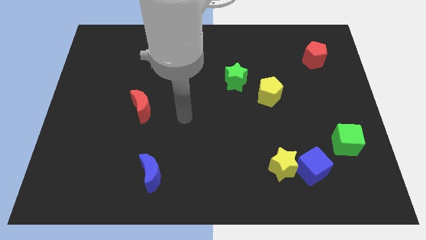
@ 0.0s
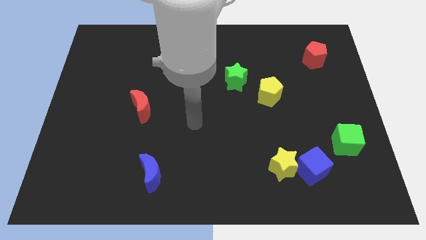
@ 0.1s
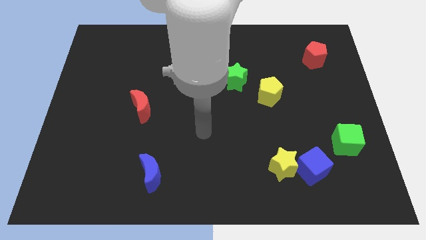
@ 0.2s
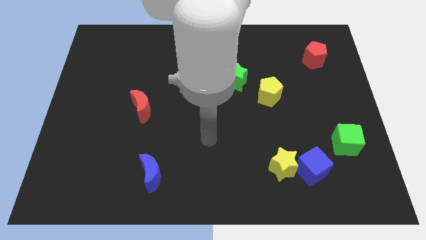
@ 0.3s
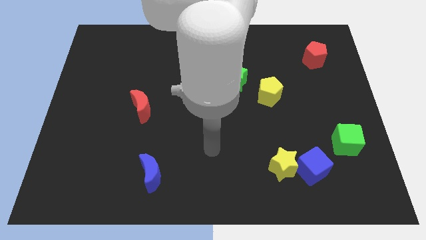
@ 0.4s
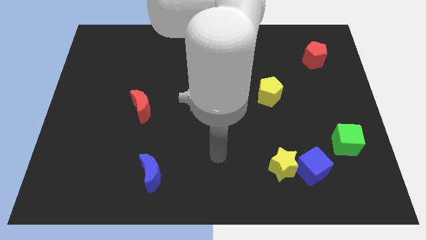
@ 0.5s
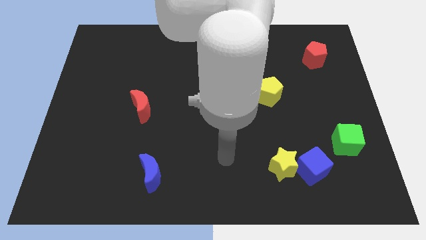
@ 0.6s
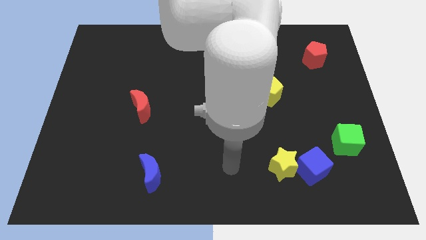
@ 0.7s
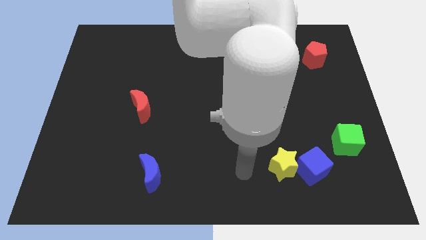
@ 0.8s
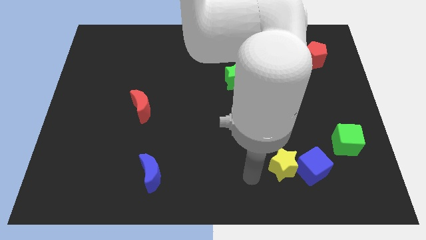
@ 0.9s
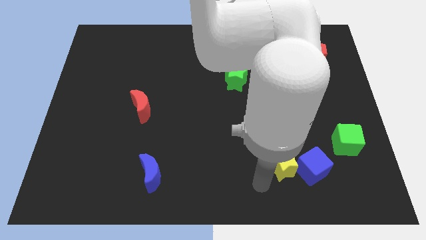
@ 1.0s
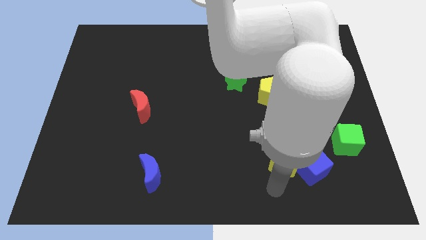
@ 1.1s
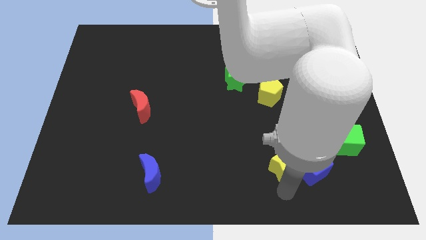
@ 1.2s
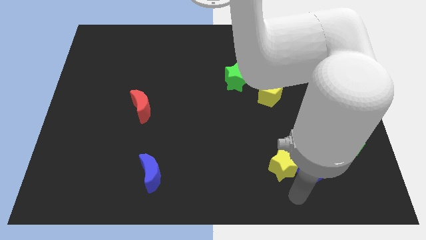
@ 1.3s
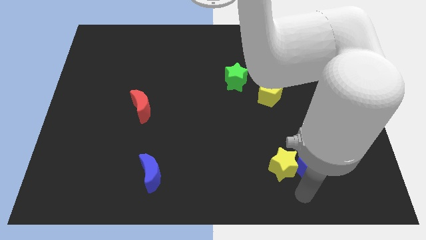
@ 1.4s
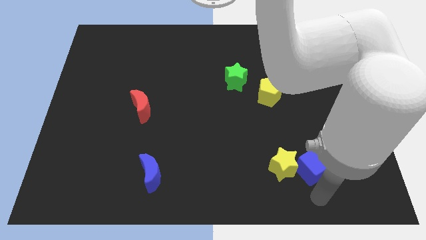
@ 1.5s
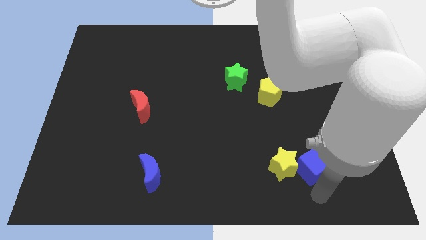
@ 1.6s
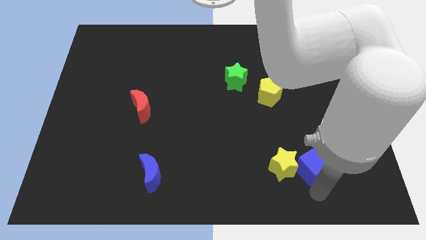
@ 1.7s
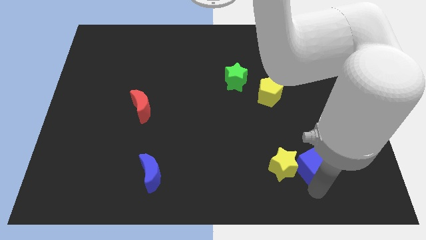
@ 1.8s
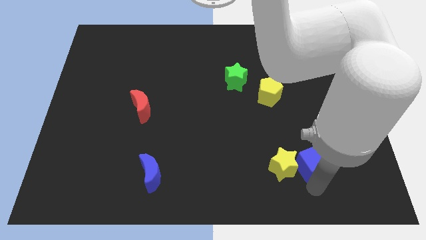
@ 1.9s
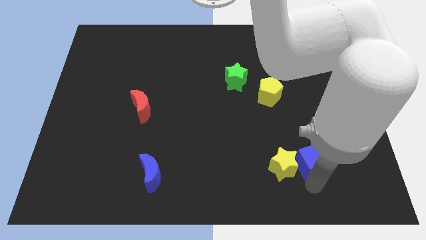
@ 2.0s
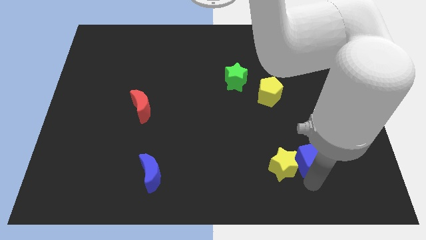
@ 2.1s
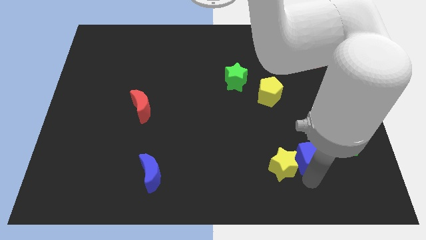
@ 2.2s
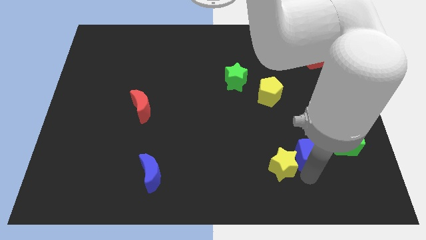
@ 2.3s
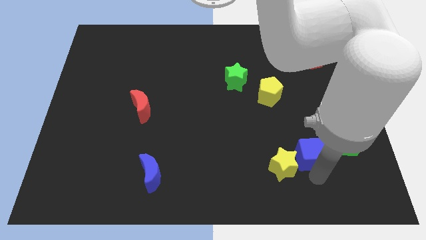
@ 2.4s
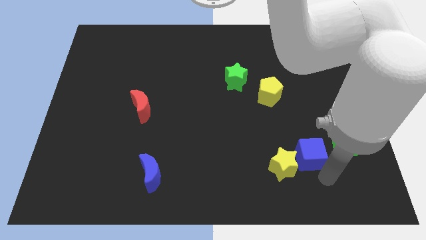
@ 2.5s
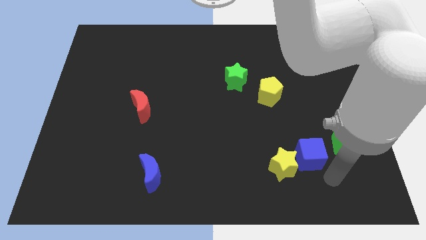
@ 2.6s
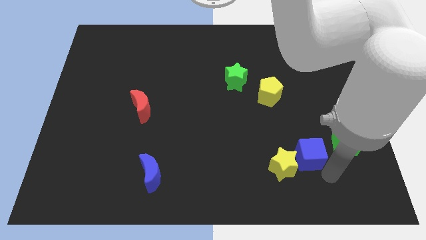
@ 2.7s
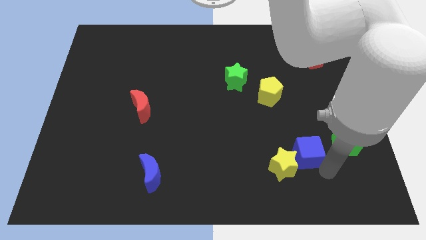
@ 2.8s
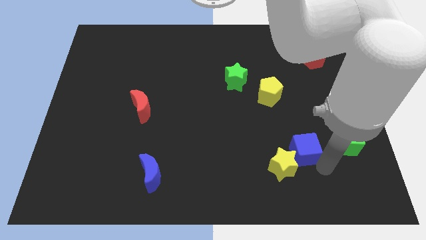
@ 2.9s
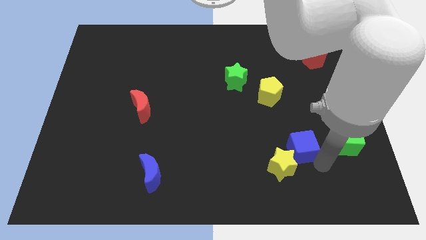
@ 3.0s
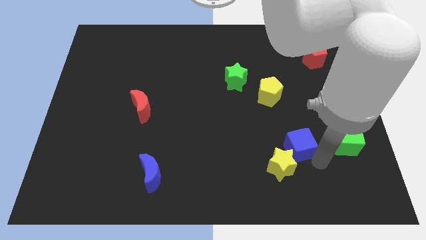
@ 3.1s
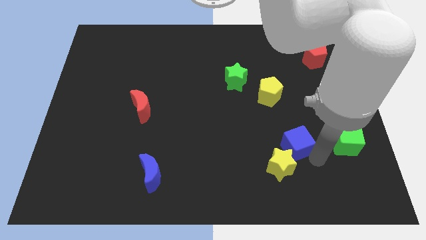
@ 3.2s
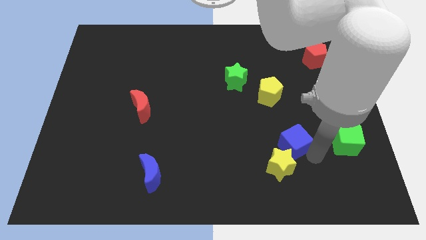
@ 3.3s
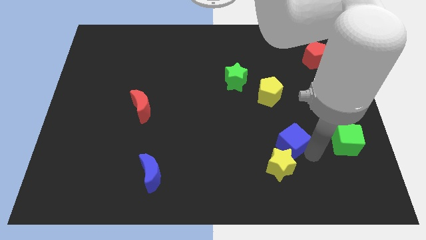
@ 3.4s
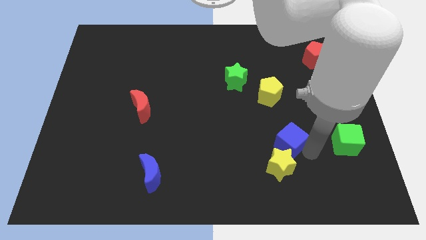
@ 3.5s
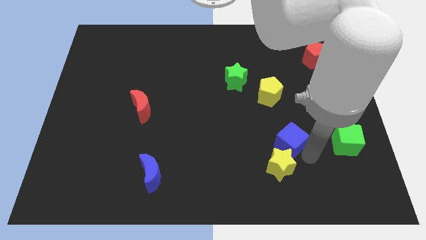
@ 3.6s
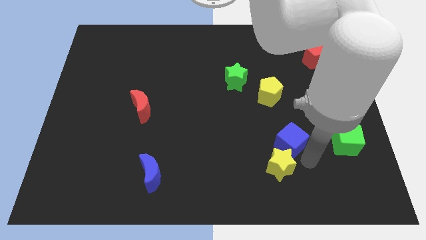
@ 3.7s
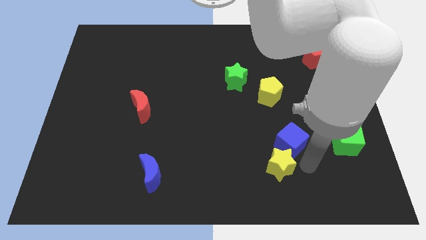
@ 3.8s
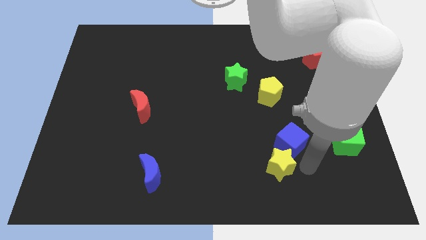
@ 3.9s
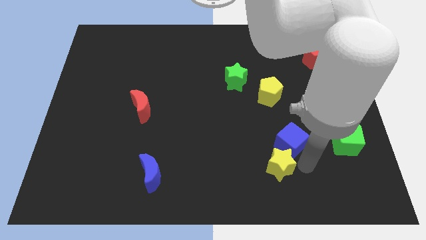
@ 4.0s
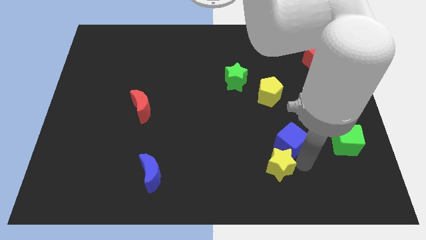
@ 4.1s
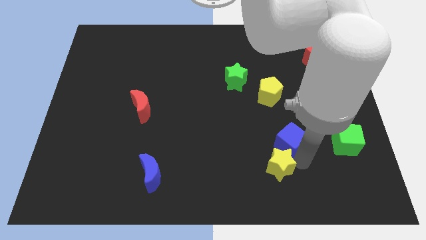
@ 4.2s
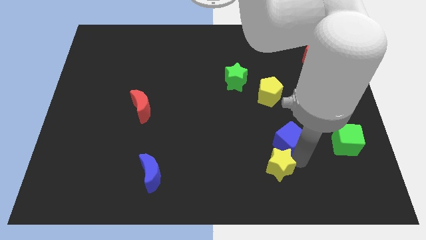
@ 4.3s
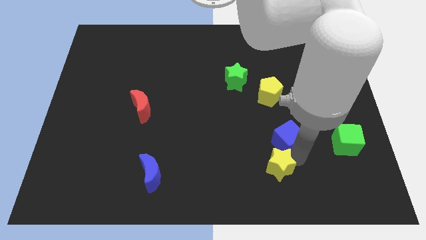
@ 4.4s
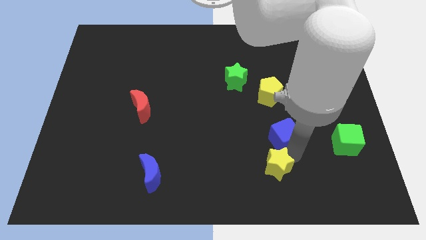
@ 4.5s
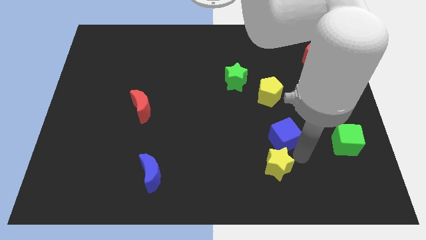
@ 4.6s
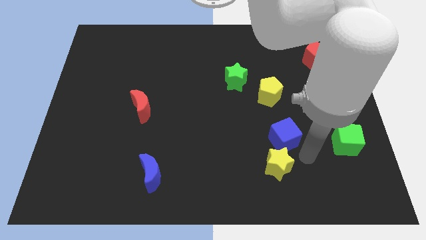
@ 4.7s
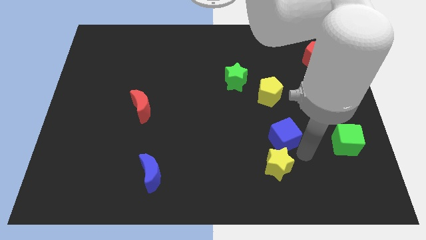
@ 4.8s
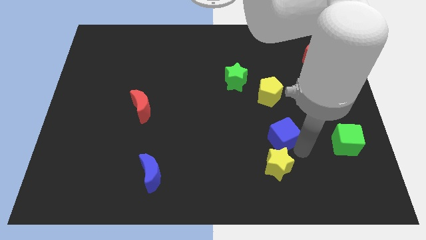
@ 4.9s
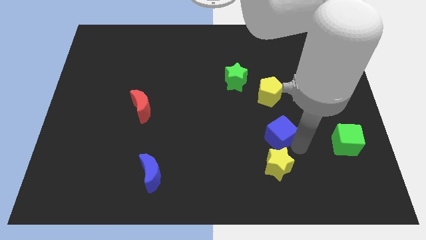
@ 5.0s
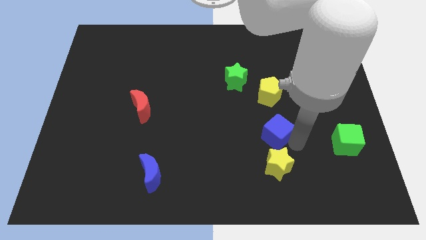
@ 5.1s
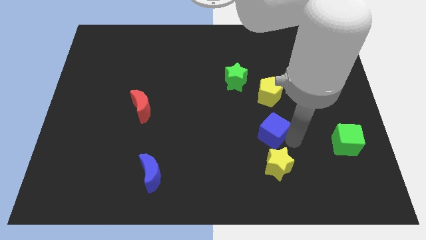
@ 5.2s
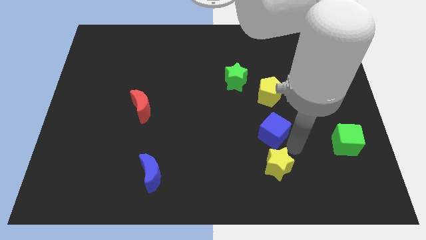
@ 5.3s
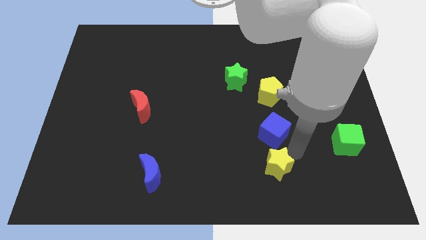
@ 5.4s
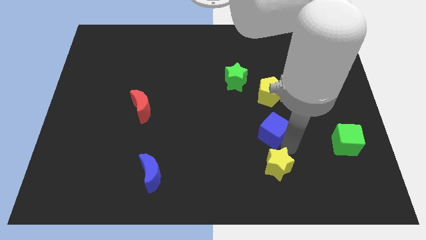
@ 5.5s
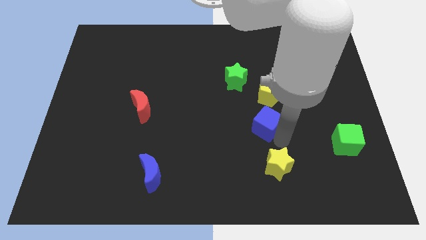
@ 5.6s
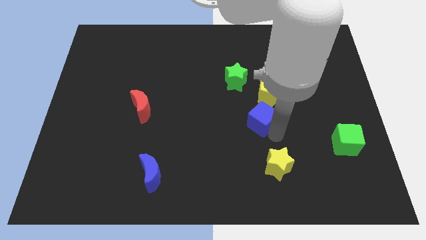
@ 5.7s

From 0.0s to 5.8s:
push the blue cube to the bottom left of the yellow pentagon

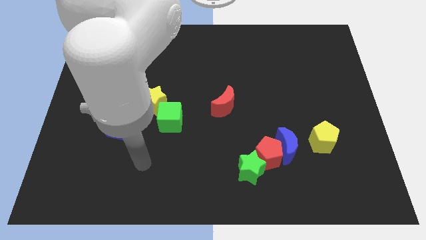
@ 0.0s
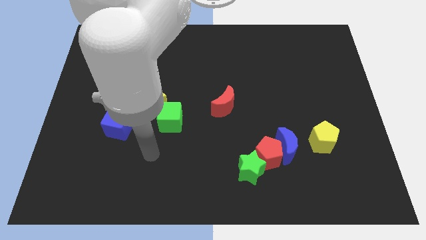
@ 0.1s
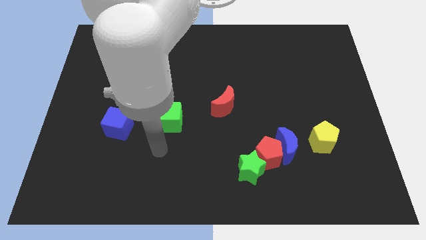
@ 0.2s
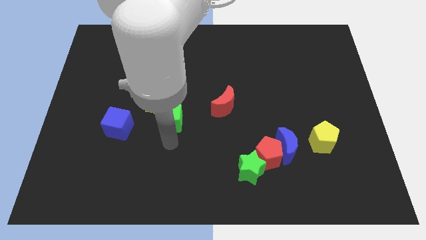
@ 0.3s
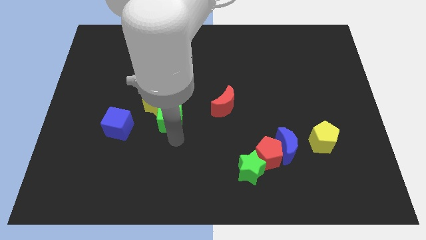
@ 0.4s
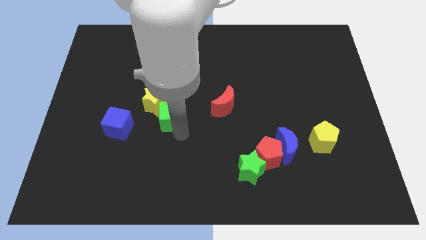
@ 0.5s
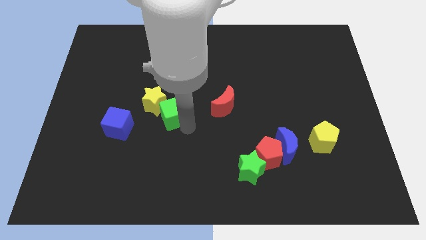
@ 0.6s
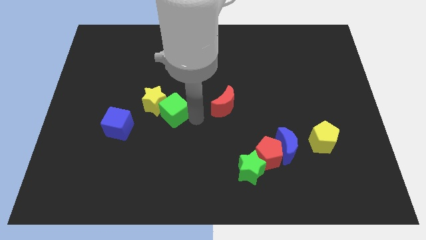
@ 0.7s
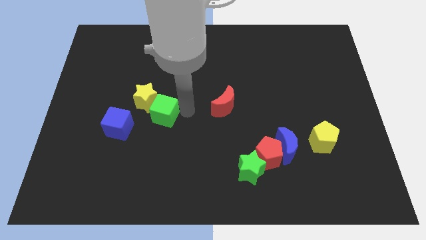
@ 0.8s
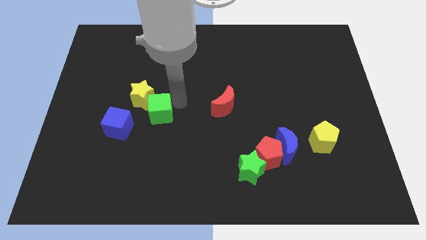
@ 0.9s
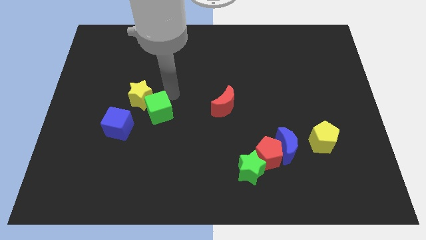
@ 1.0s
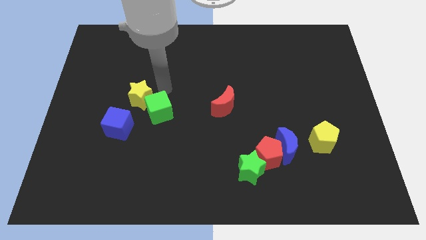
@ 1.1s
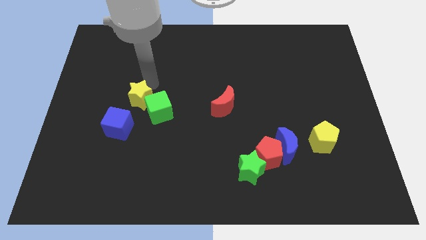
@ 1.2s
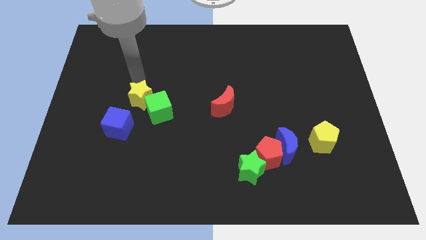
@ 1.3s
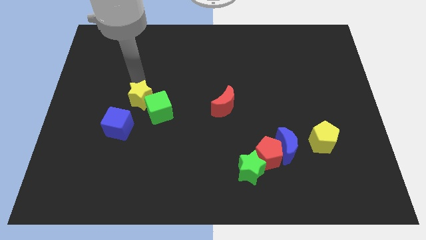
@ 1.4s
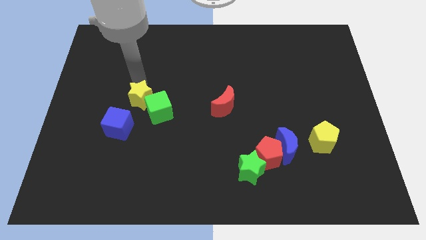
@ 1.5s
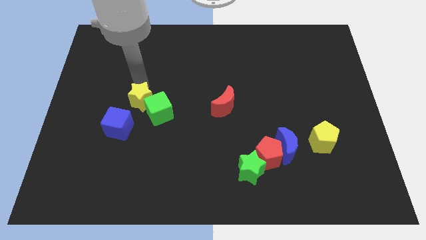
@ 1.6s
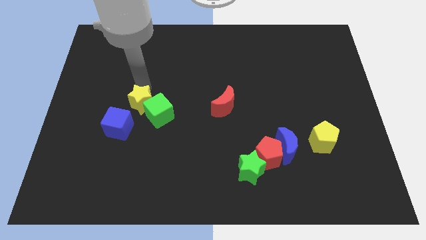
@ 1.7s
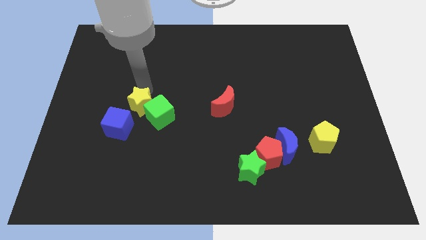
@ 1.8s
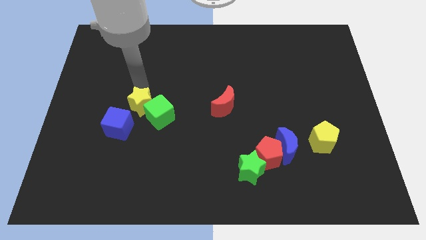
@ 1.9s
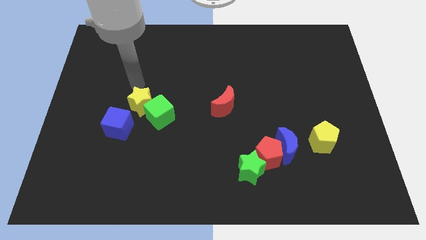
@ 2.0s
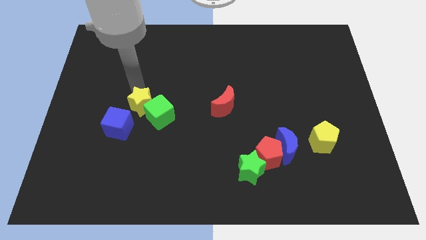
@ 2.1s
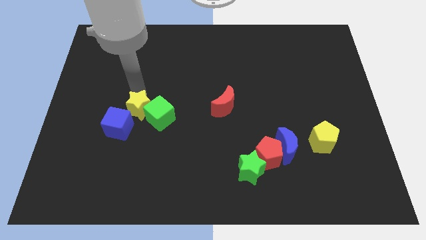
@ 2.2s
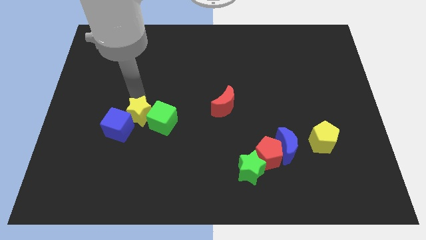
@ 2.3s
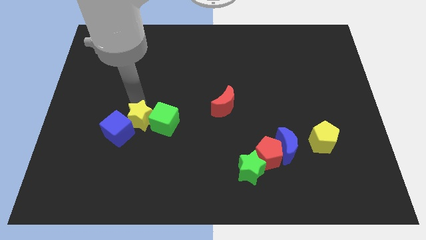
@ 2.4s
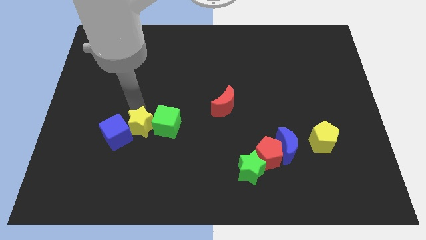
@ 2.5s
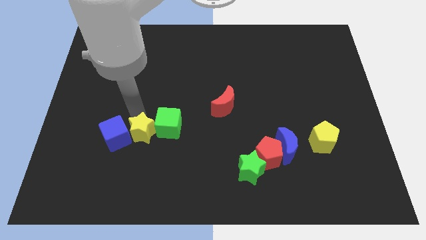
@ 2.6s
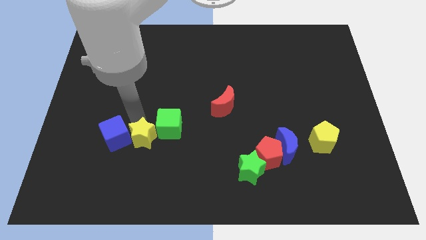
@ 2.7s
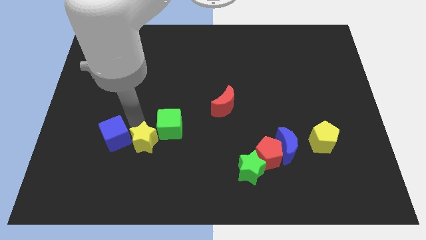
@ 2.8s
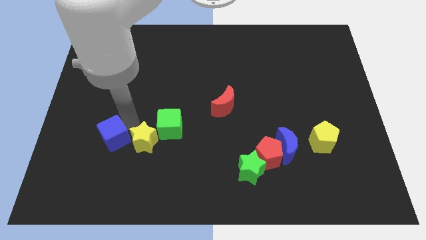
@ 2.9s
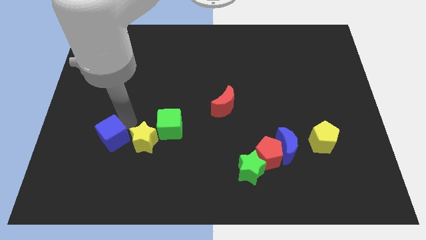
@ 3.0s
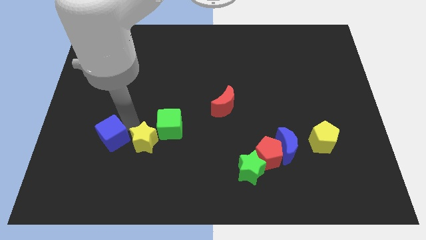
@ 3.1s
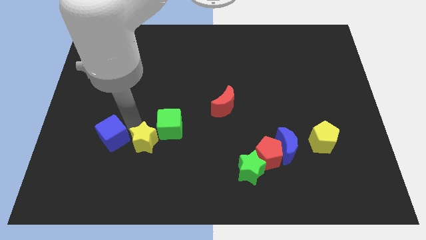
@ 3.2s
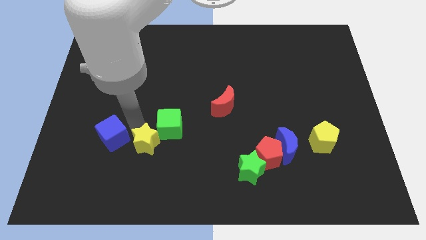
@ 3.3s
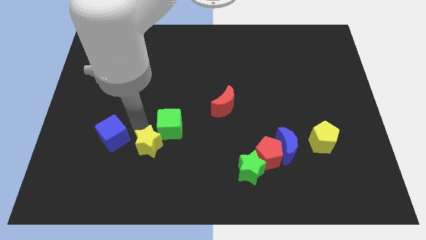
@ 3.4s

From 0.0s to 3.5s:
put the yellow star below the green cube
